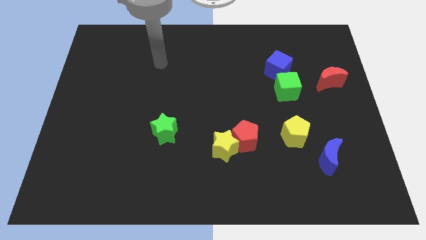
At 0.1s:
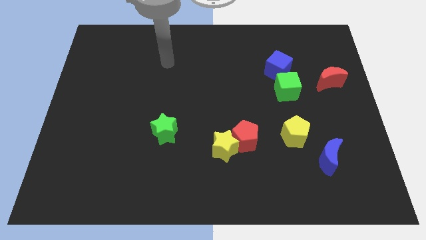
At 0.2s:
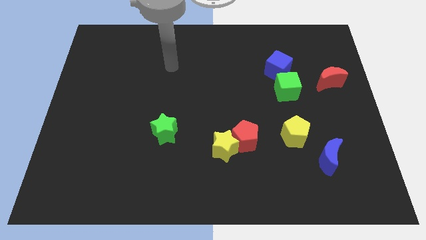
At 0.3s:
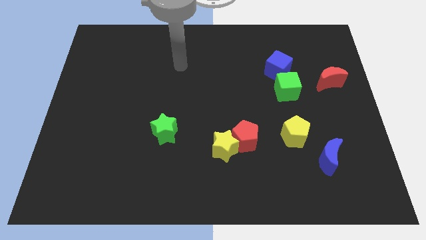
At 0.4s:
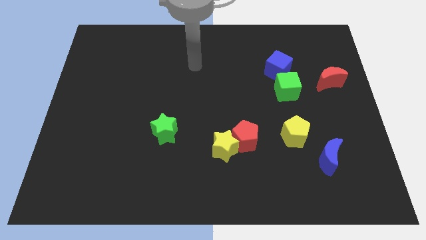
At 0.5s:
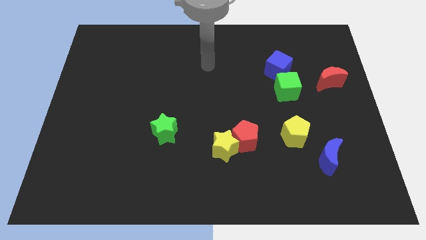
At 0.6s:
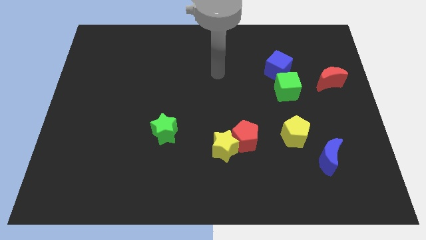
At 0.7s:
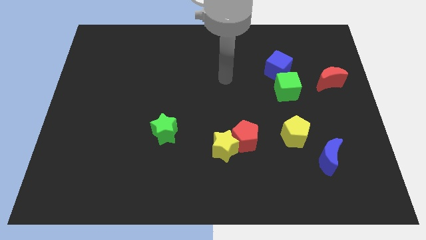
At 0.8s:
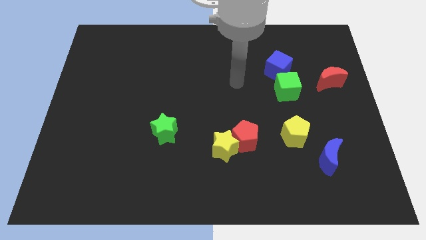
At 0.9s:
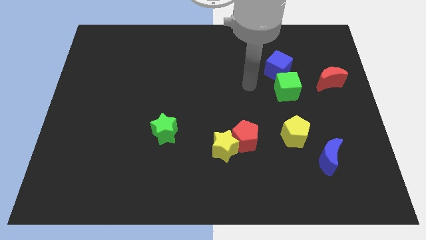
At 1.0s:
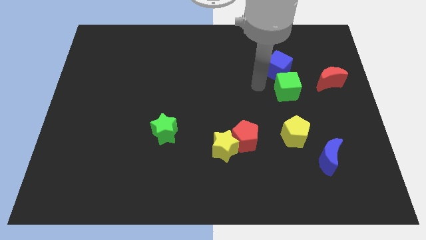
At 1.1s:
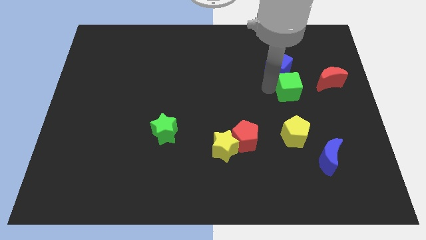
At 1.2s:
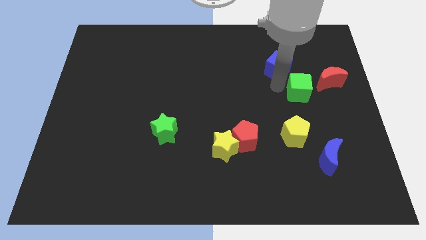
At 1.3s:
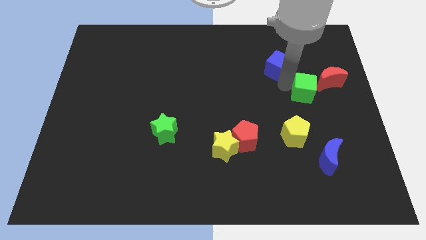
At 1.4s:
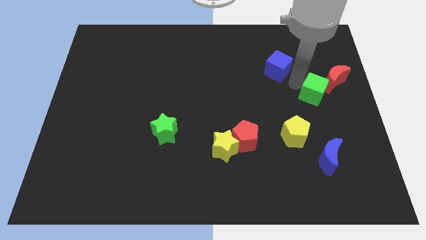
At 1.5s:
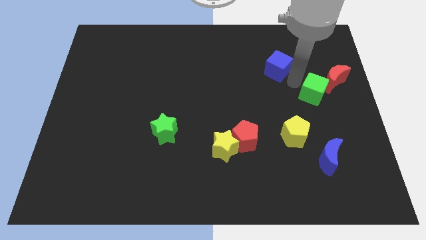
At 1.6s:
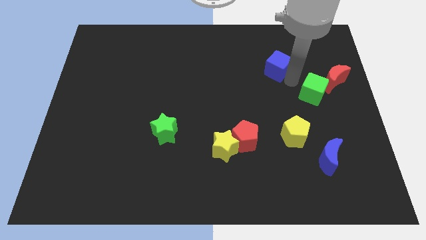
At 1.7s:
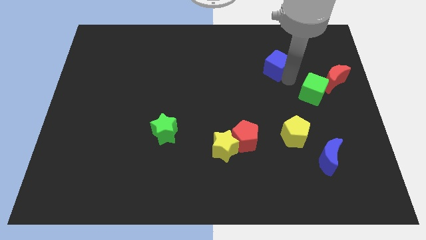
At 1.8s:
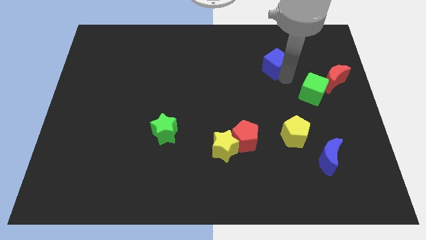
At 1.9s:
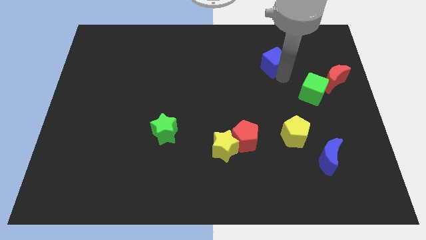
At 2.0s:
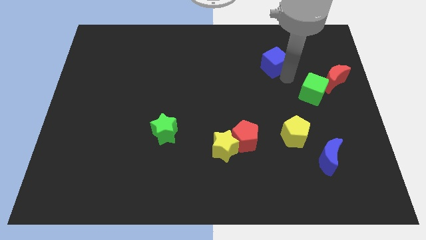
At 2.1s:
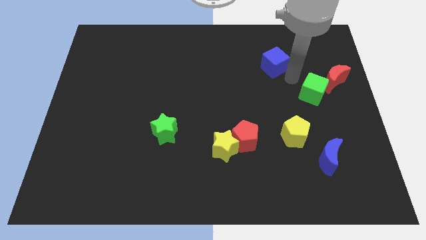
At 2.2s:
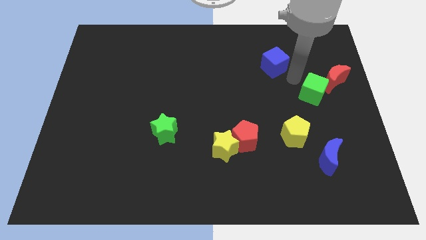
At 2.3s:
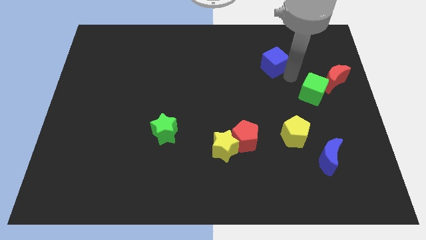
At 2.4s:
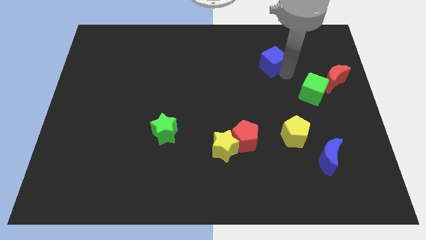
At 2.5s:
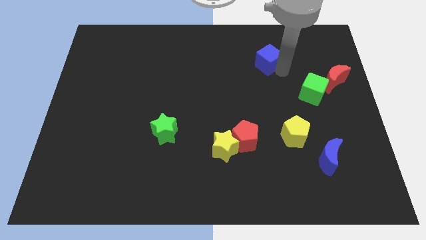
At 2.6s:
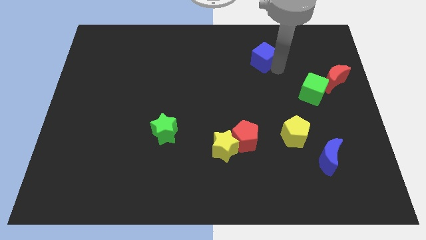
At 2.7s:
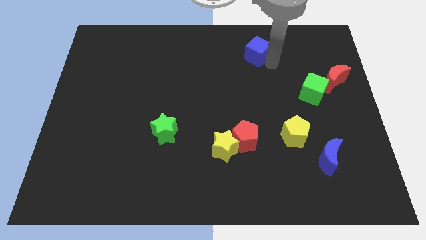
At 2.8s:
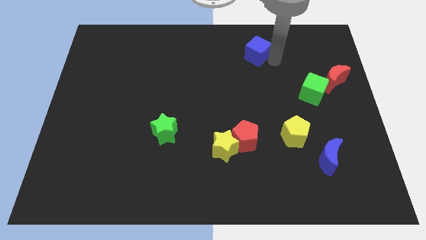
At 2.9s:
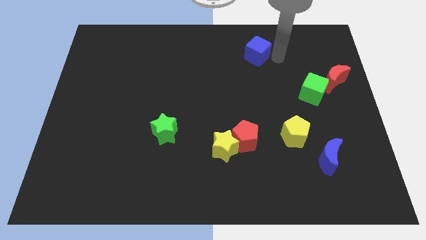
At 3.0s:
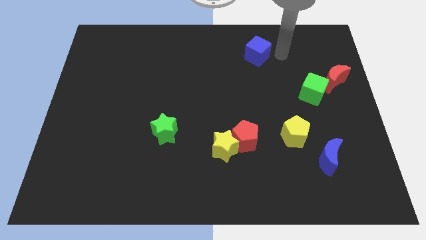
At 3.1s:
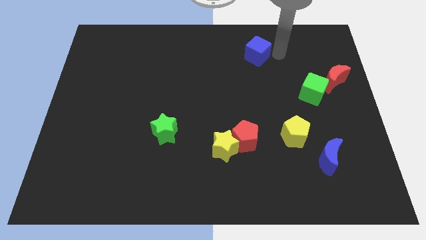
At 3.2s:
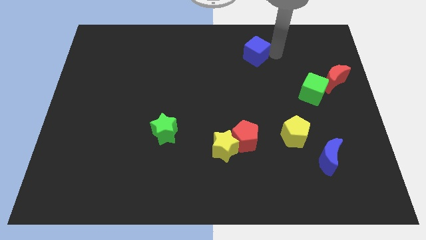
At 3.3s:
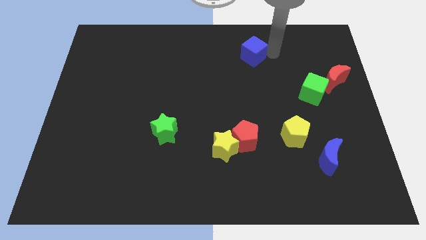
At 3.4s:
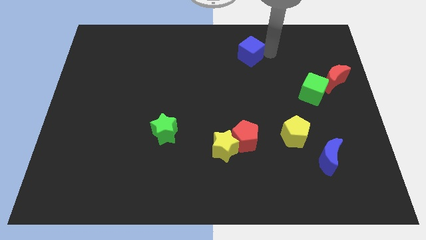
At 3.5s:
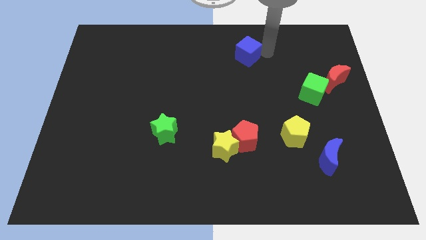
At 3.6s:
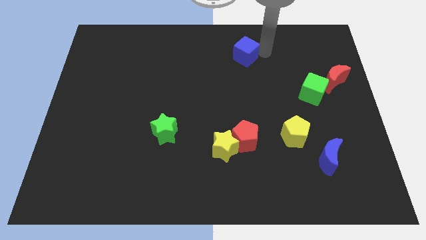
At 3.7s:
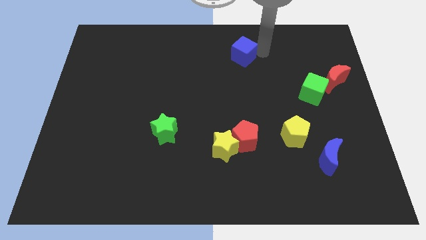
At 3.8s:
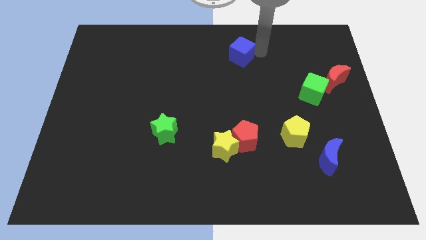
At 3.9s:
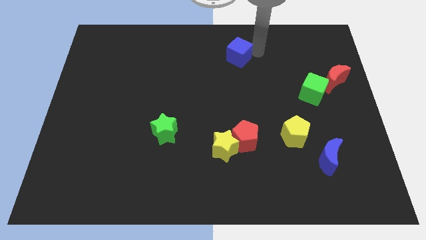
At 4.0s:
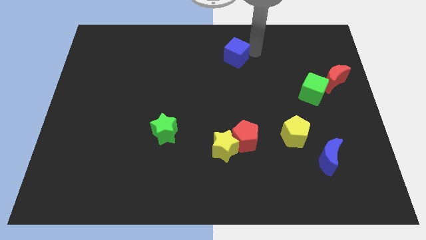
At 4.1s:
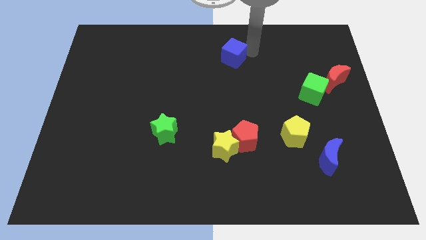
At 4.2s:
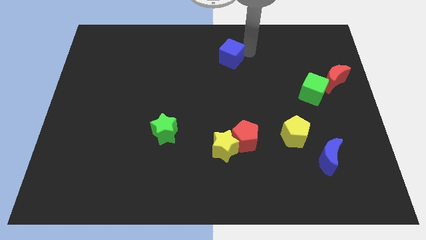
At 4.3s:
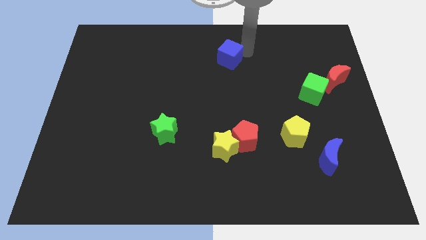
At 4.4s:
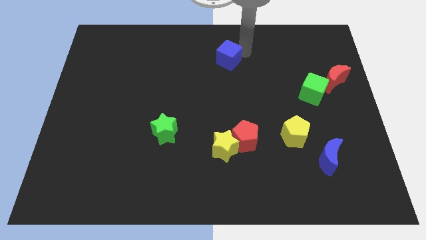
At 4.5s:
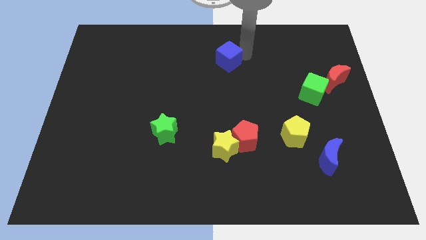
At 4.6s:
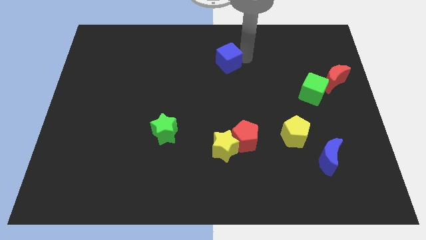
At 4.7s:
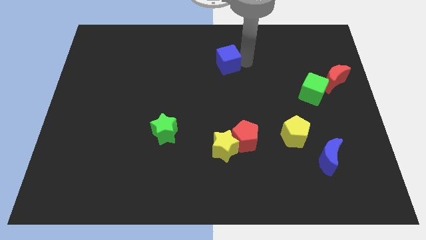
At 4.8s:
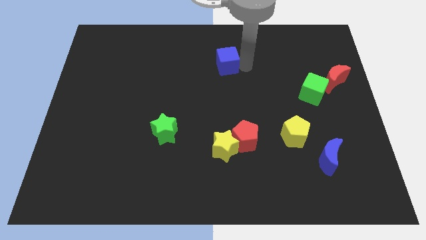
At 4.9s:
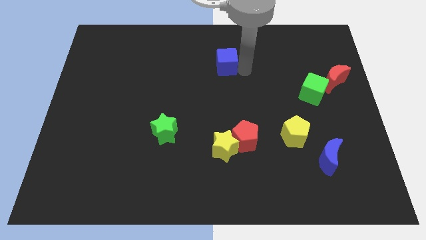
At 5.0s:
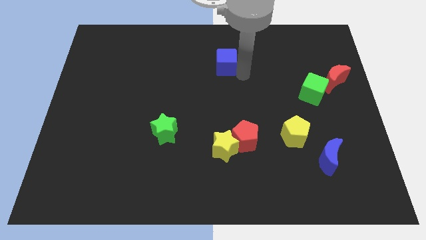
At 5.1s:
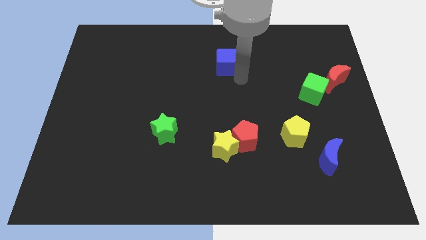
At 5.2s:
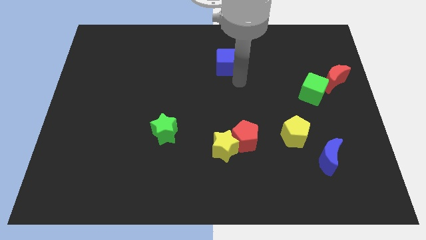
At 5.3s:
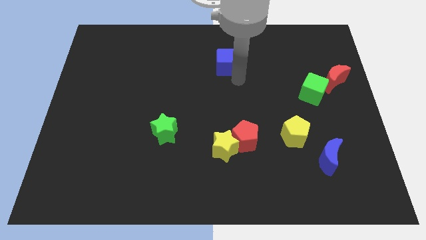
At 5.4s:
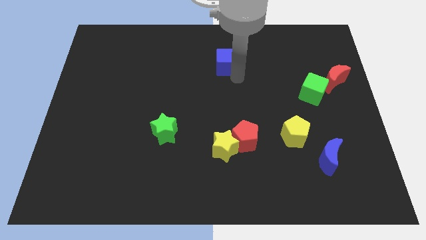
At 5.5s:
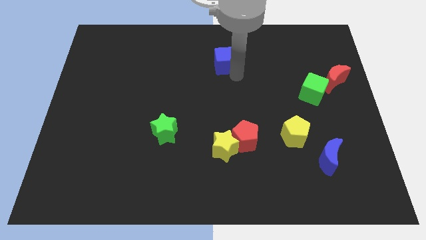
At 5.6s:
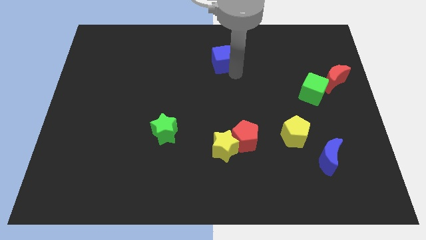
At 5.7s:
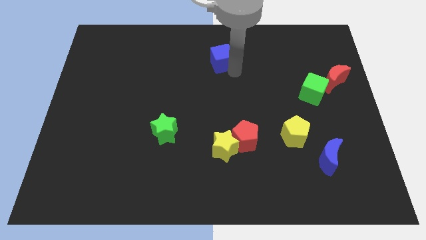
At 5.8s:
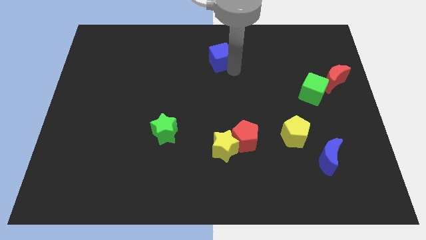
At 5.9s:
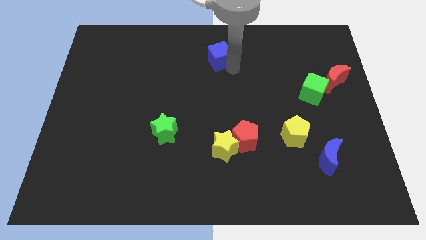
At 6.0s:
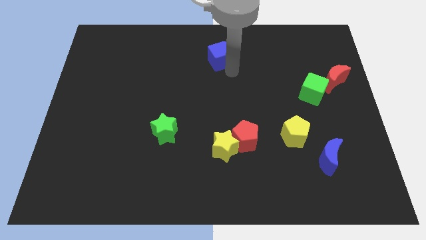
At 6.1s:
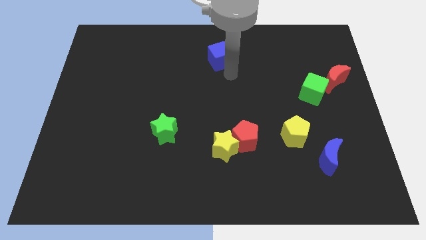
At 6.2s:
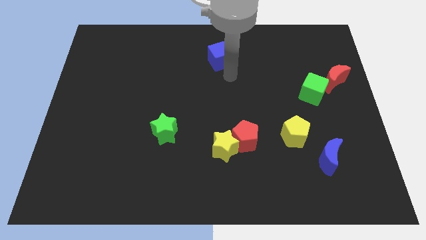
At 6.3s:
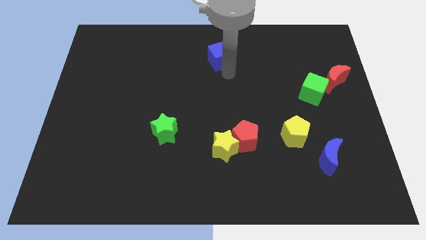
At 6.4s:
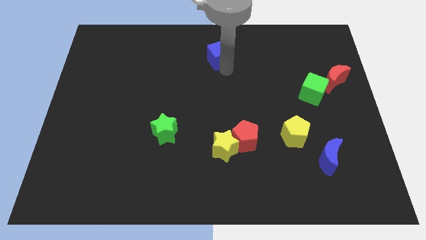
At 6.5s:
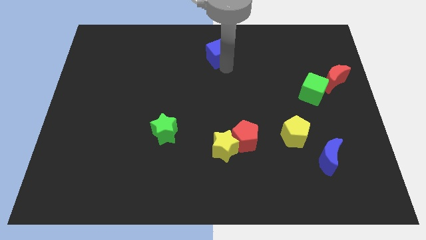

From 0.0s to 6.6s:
push the blue cube to the top
